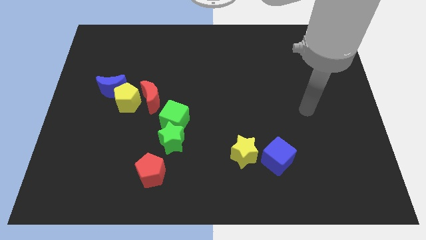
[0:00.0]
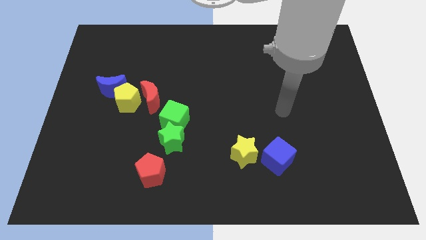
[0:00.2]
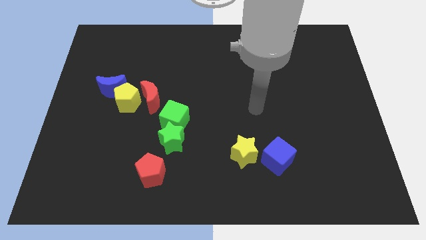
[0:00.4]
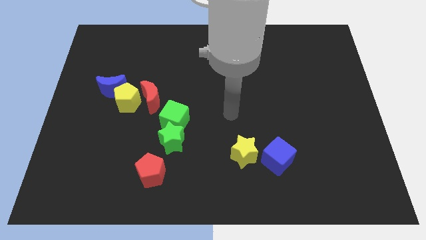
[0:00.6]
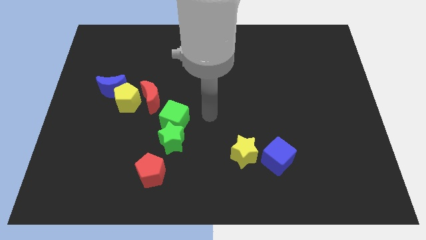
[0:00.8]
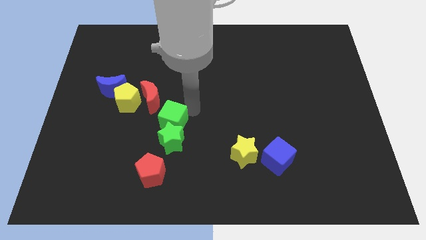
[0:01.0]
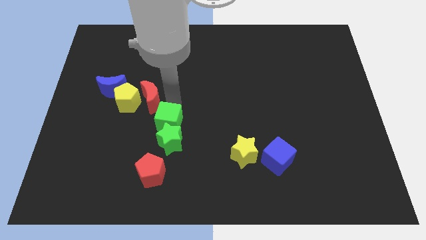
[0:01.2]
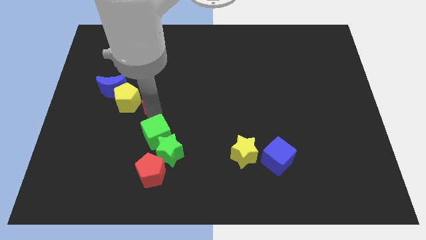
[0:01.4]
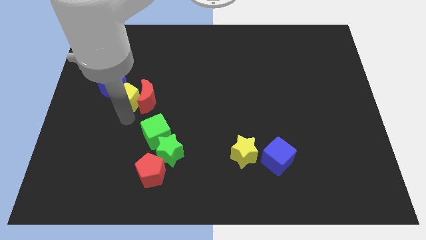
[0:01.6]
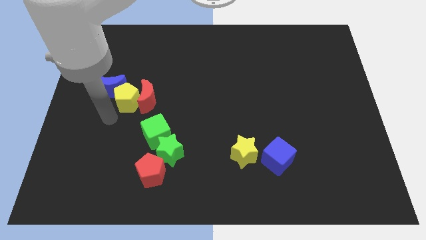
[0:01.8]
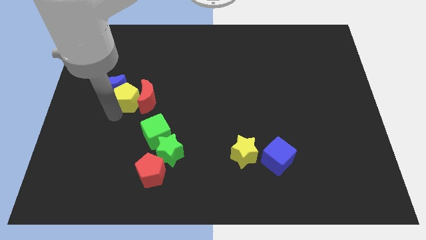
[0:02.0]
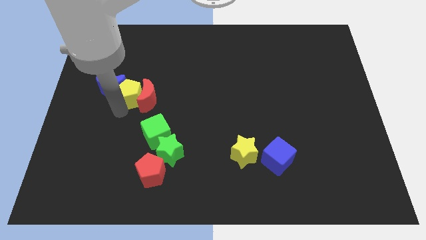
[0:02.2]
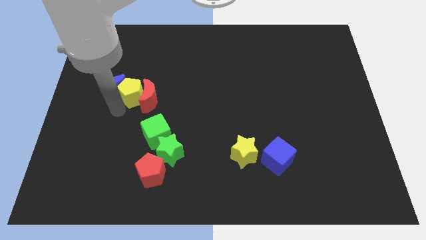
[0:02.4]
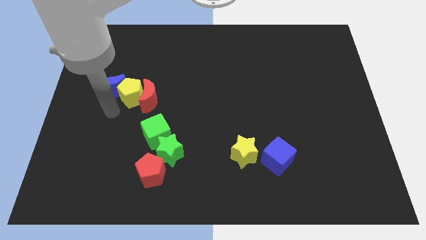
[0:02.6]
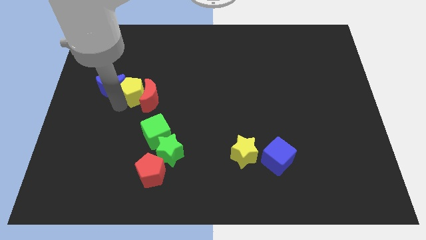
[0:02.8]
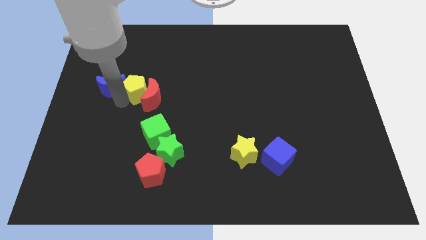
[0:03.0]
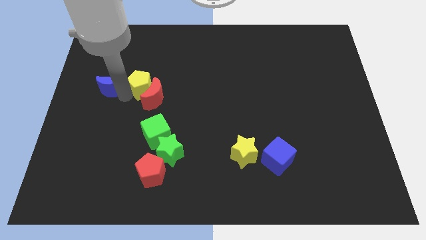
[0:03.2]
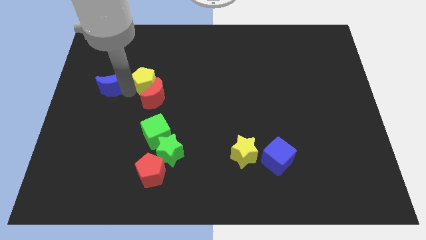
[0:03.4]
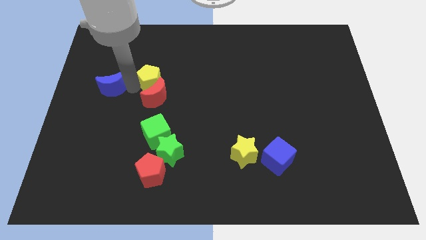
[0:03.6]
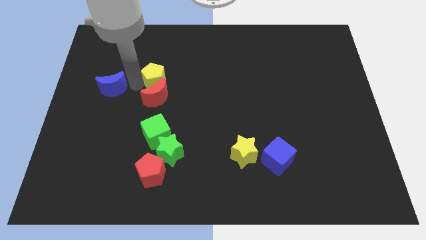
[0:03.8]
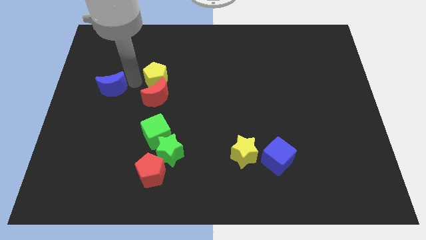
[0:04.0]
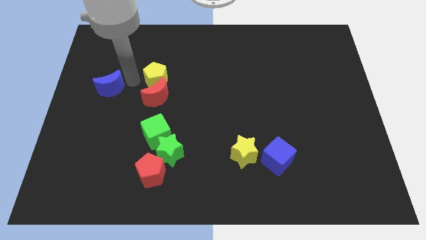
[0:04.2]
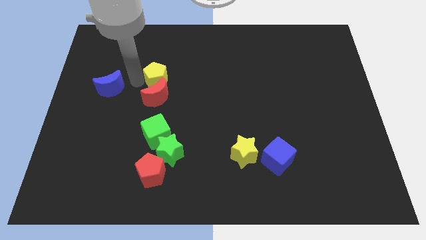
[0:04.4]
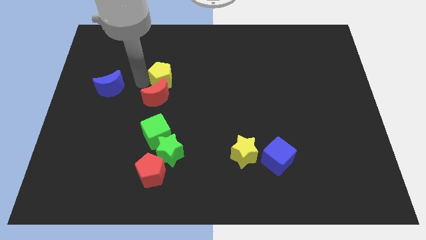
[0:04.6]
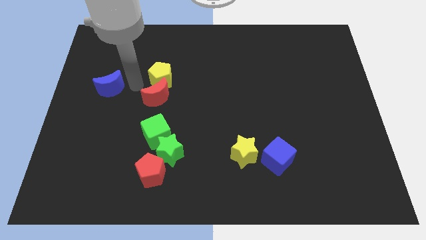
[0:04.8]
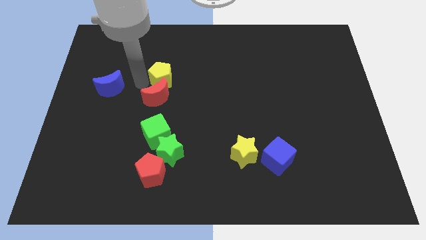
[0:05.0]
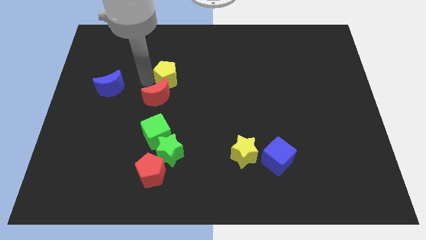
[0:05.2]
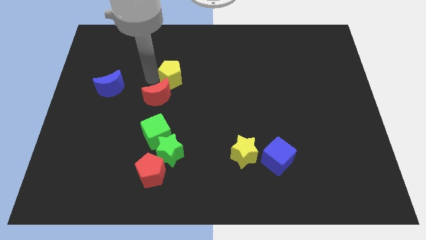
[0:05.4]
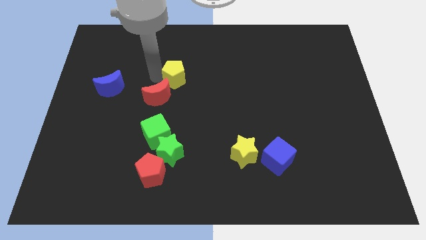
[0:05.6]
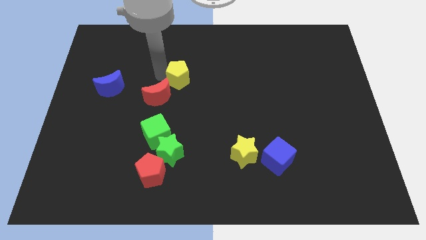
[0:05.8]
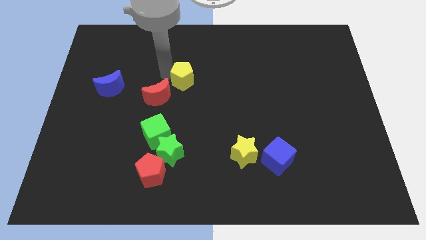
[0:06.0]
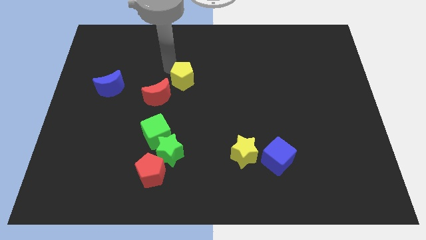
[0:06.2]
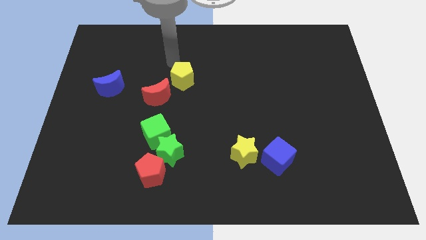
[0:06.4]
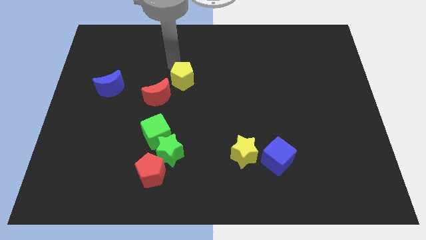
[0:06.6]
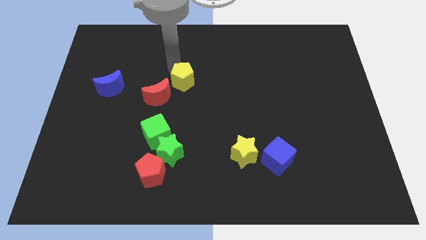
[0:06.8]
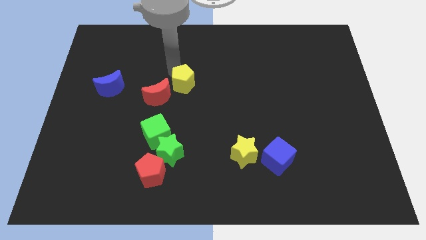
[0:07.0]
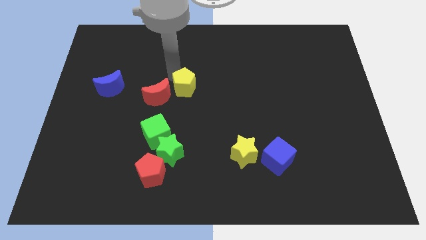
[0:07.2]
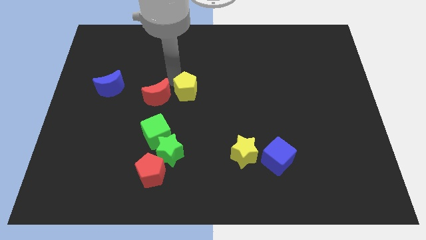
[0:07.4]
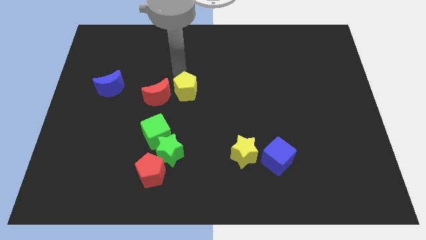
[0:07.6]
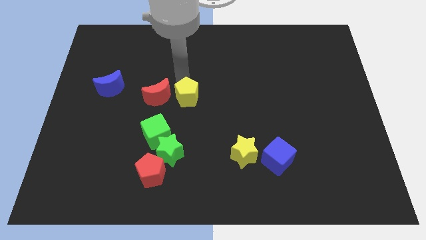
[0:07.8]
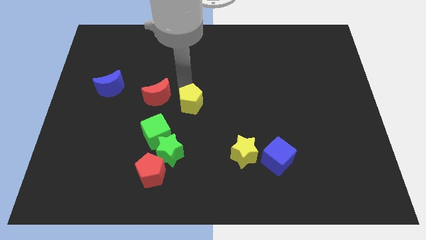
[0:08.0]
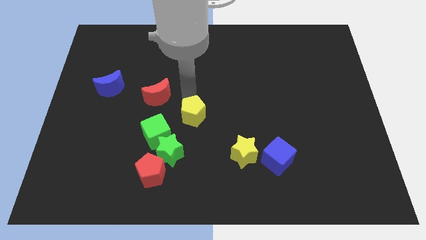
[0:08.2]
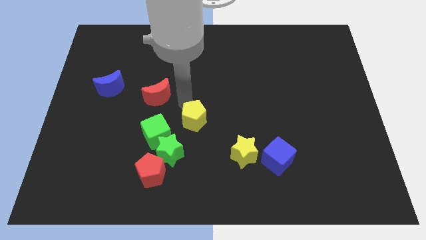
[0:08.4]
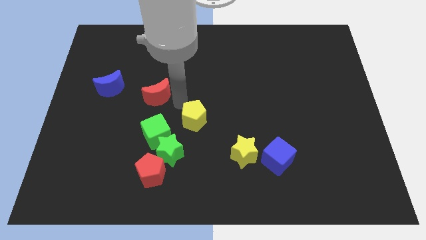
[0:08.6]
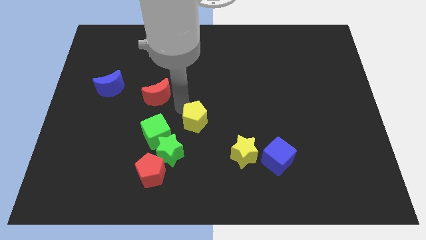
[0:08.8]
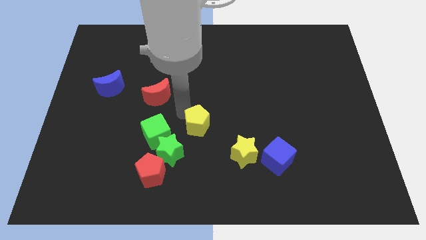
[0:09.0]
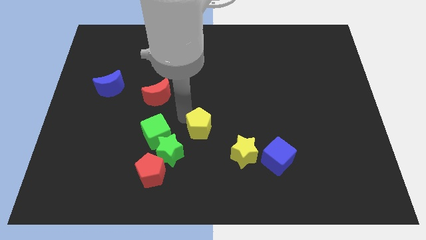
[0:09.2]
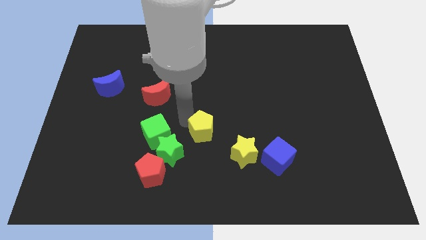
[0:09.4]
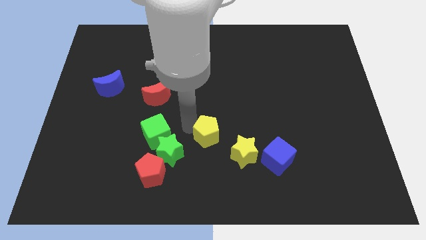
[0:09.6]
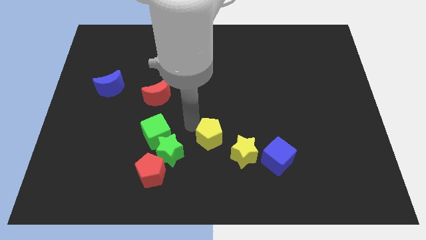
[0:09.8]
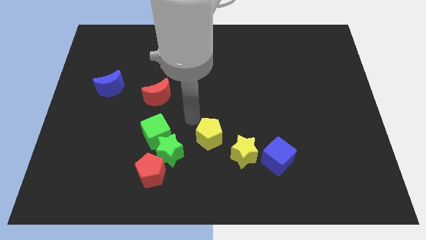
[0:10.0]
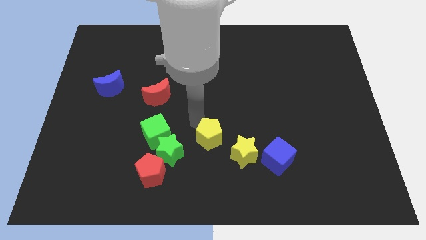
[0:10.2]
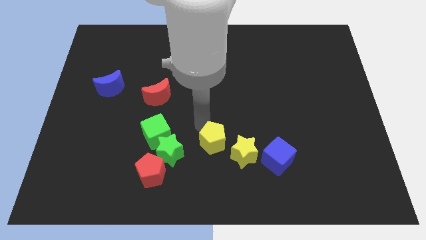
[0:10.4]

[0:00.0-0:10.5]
move the yellow pentagon left of the blue cube
